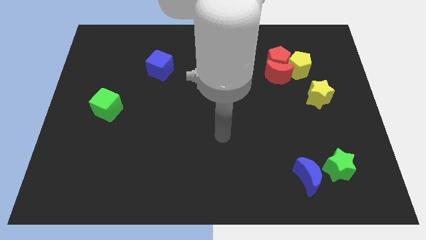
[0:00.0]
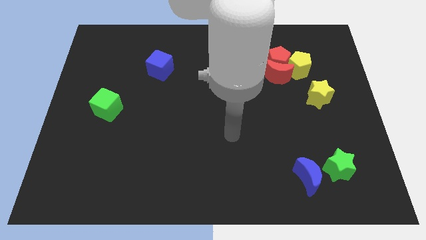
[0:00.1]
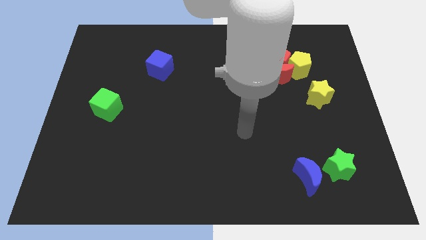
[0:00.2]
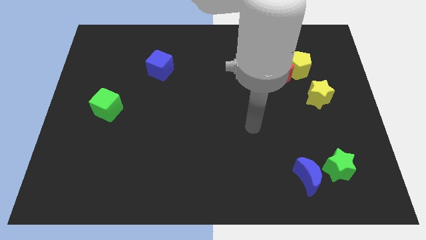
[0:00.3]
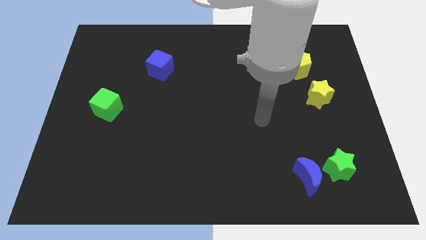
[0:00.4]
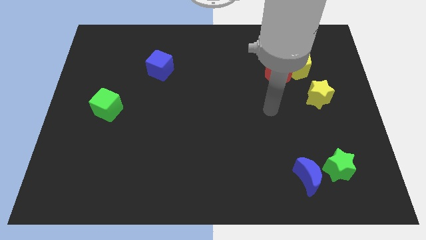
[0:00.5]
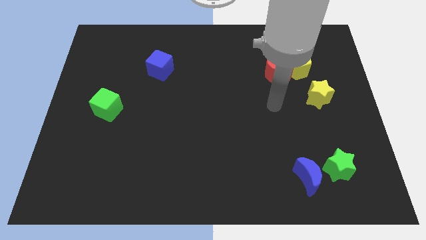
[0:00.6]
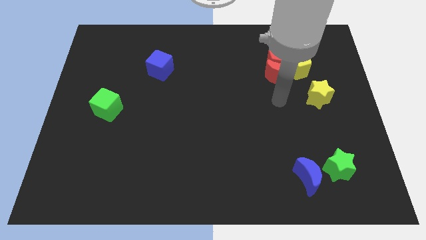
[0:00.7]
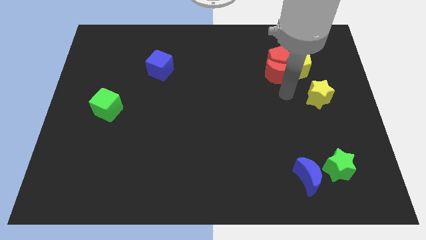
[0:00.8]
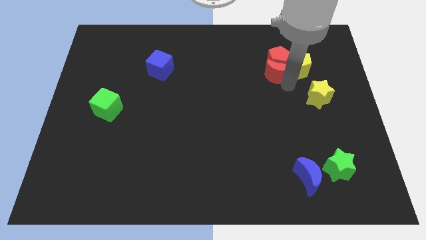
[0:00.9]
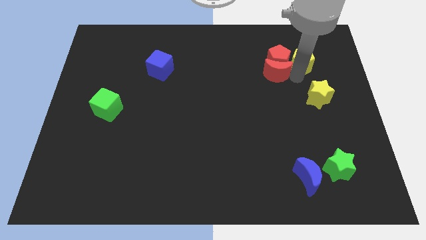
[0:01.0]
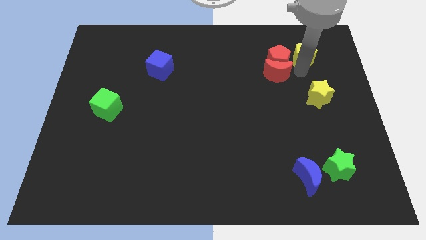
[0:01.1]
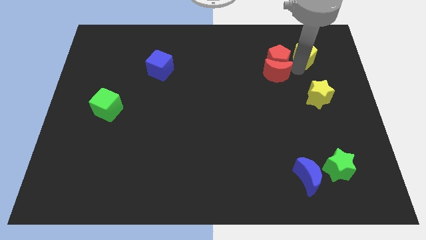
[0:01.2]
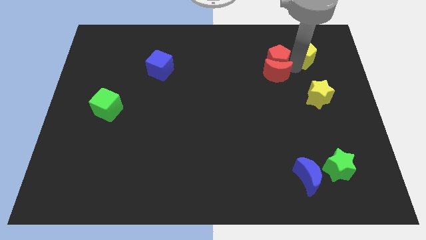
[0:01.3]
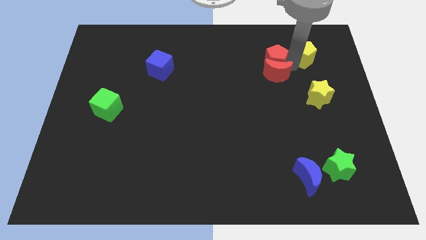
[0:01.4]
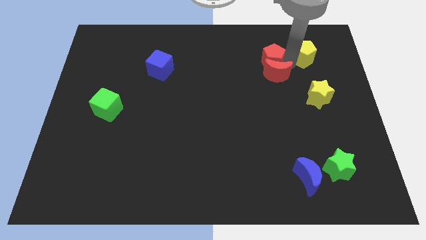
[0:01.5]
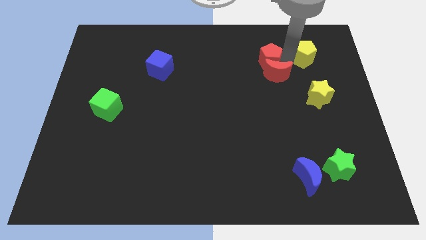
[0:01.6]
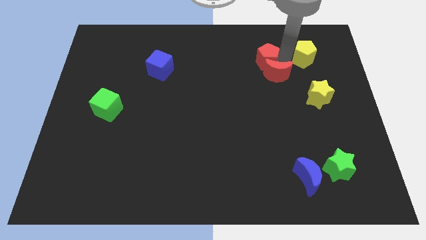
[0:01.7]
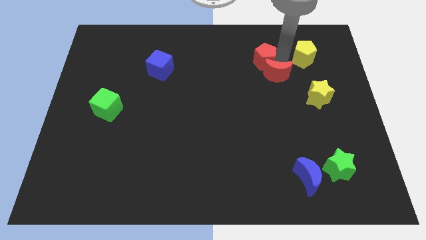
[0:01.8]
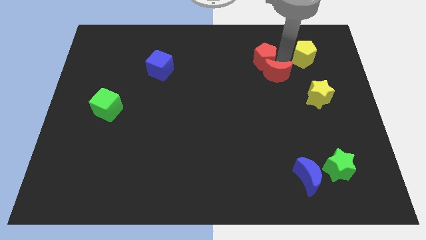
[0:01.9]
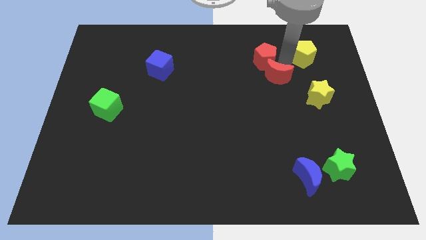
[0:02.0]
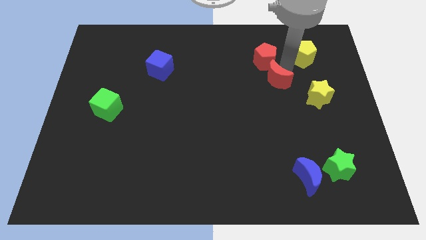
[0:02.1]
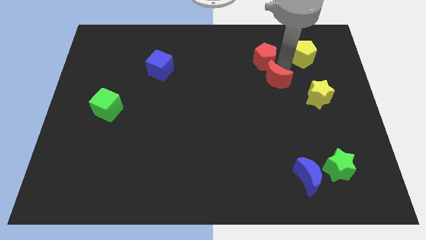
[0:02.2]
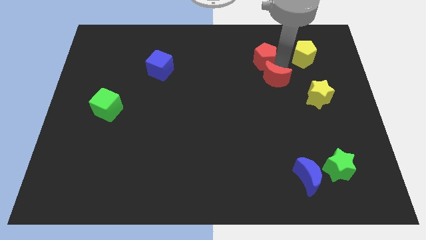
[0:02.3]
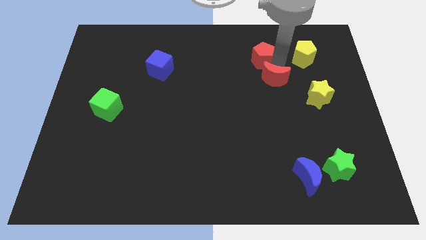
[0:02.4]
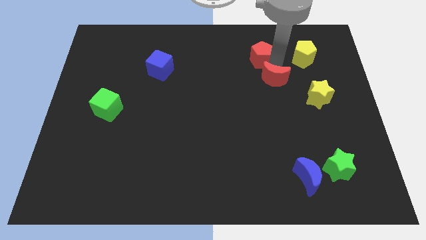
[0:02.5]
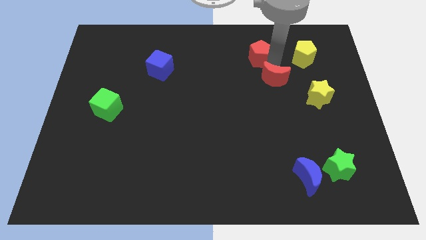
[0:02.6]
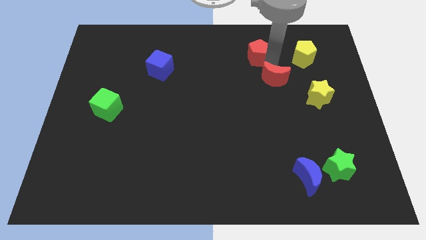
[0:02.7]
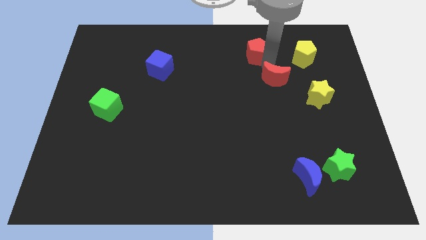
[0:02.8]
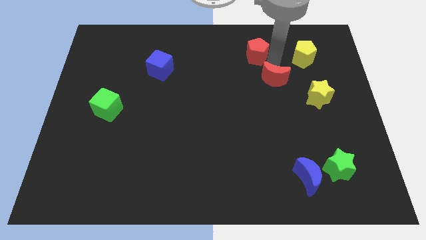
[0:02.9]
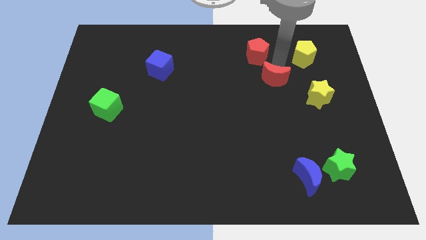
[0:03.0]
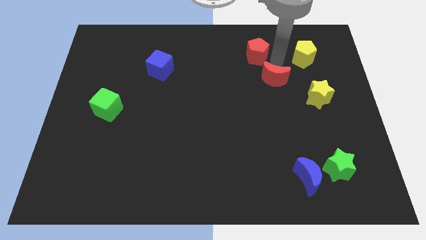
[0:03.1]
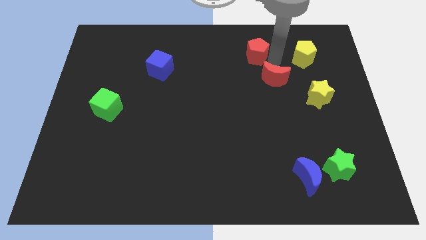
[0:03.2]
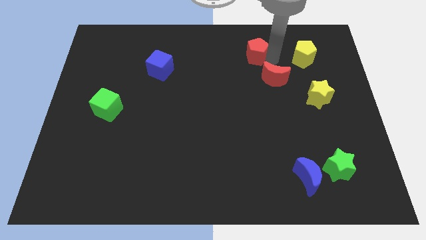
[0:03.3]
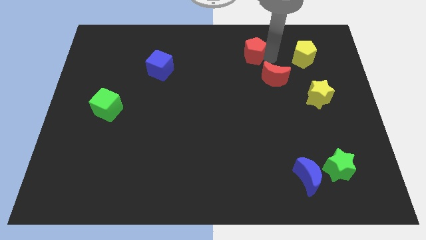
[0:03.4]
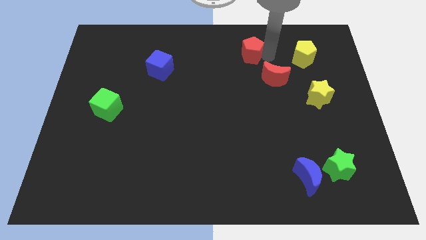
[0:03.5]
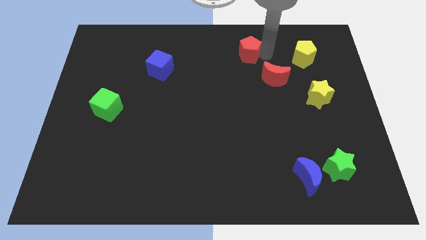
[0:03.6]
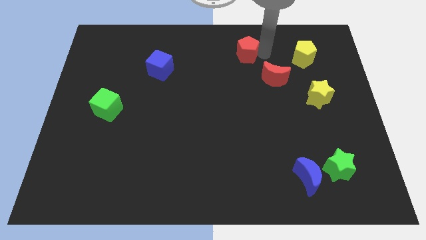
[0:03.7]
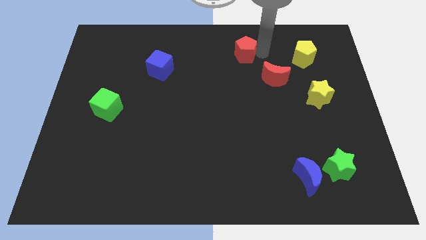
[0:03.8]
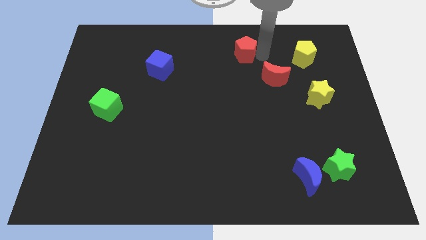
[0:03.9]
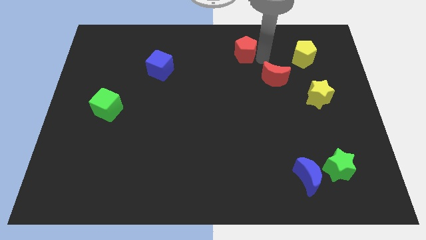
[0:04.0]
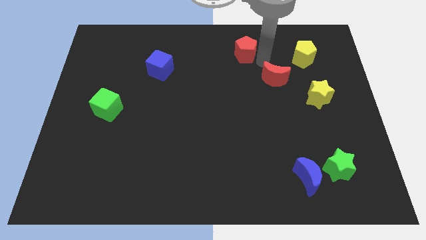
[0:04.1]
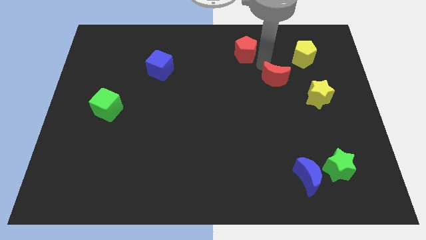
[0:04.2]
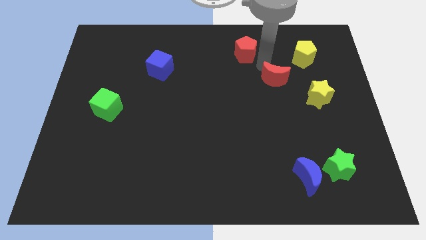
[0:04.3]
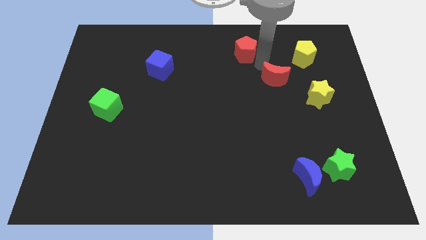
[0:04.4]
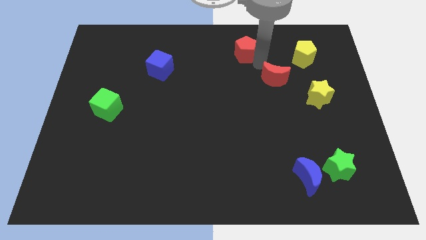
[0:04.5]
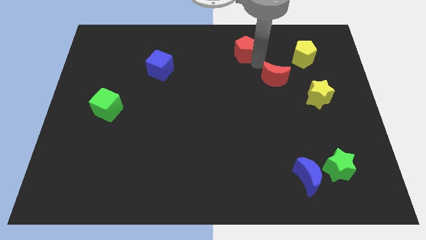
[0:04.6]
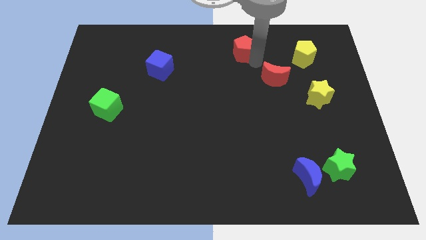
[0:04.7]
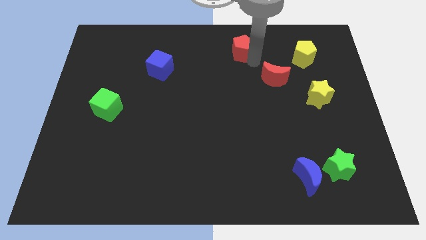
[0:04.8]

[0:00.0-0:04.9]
put the red pentagon to the top side

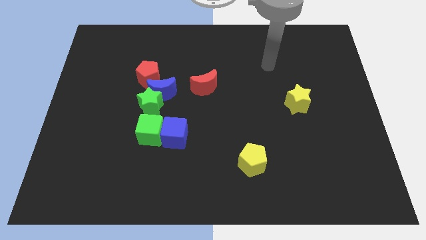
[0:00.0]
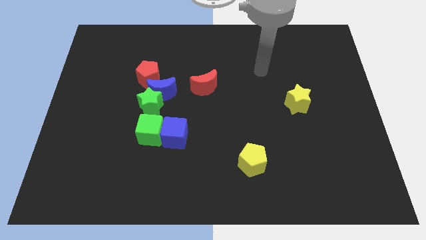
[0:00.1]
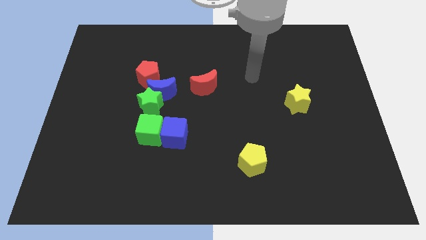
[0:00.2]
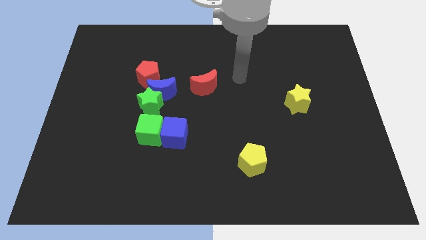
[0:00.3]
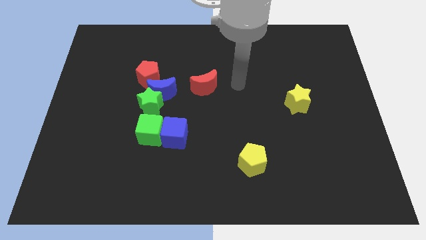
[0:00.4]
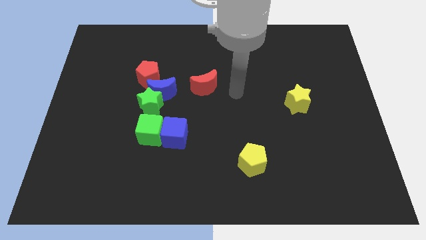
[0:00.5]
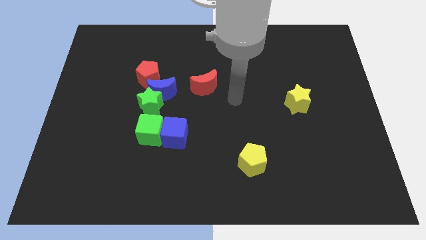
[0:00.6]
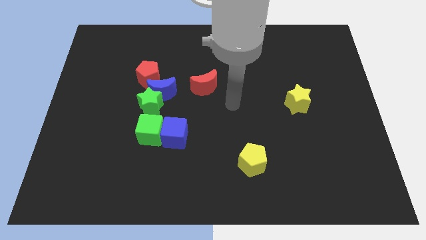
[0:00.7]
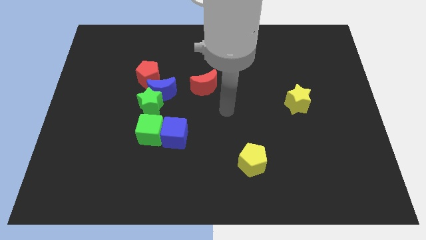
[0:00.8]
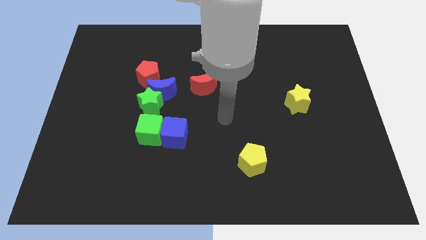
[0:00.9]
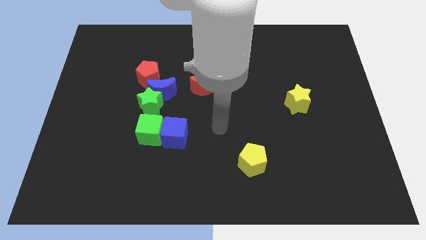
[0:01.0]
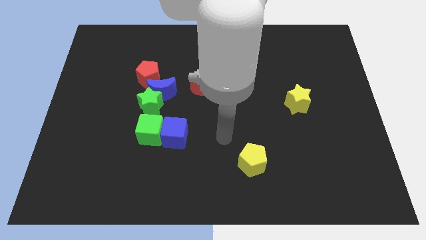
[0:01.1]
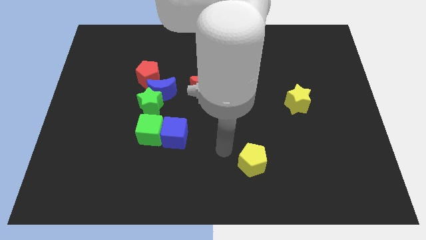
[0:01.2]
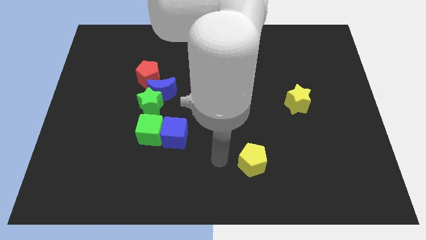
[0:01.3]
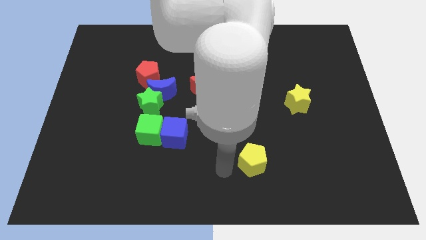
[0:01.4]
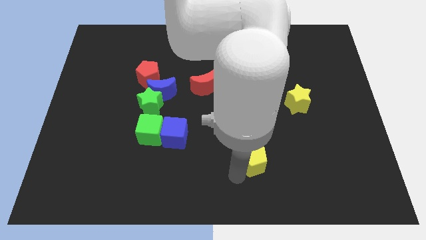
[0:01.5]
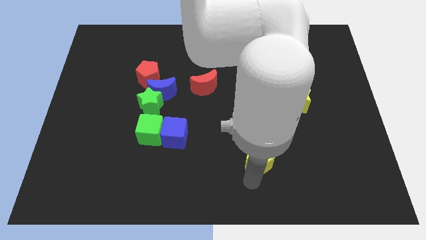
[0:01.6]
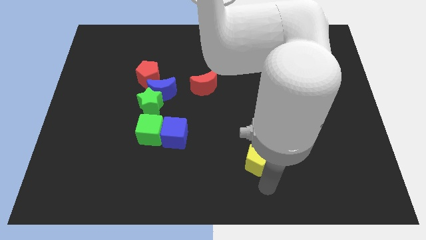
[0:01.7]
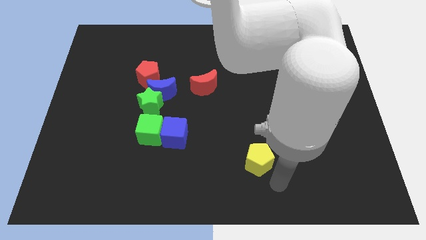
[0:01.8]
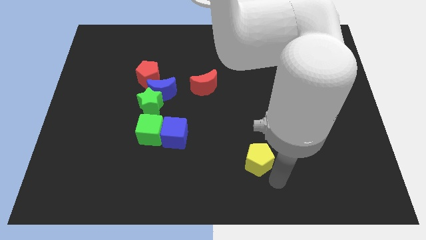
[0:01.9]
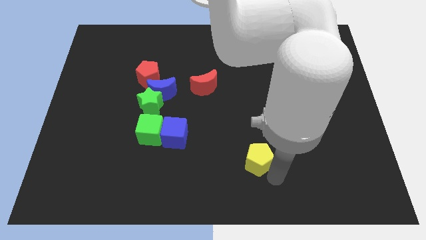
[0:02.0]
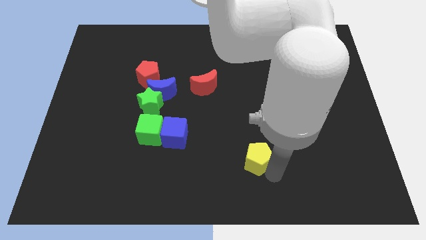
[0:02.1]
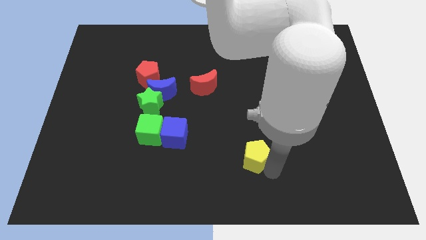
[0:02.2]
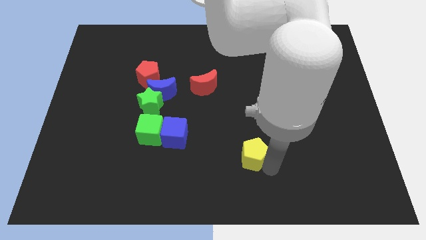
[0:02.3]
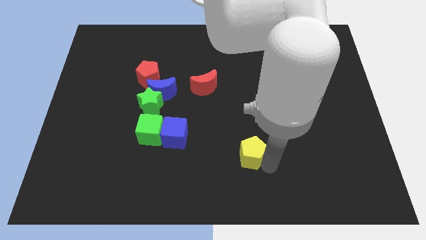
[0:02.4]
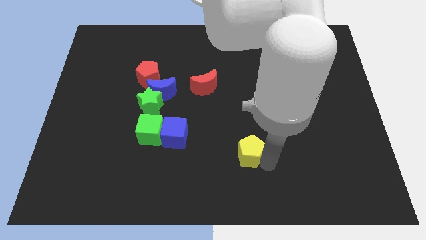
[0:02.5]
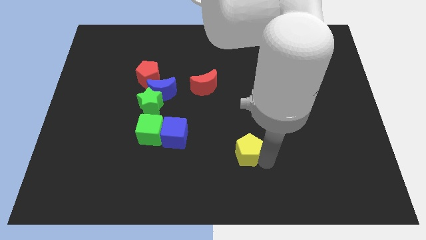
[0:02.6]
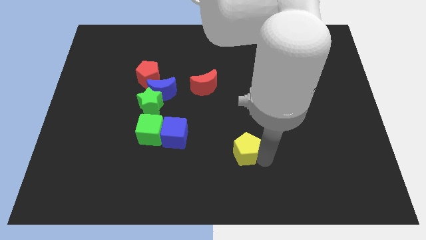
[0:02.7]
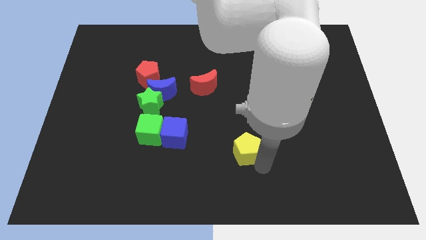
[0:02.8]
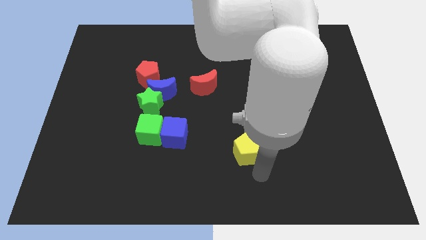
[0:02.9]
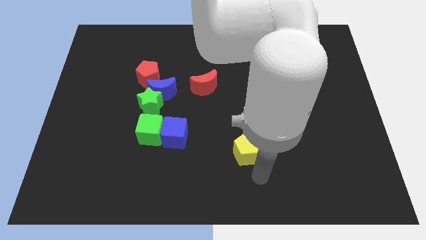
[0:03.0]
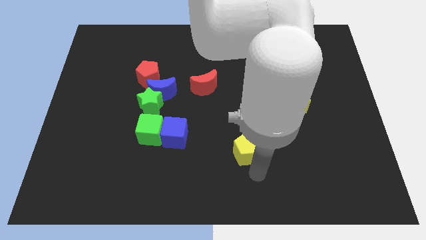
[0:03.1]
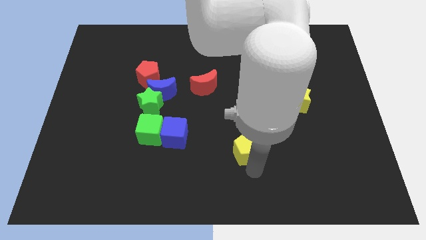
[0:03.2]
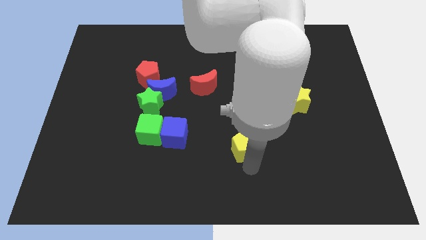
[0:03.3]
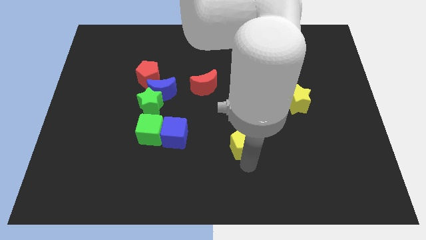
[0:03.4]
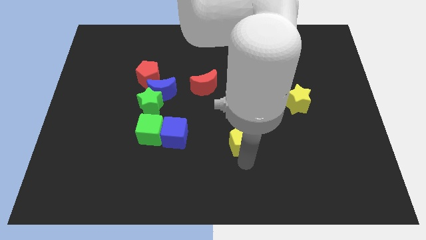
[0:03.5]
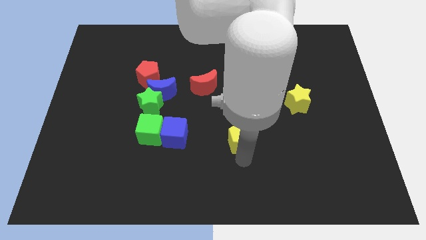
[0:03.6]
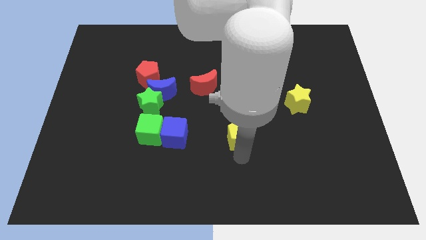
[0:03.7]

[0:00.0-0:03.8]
move the yellow pentagon to the center of the board
